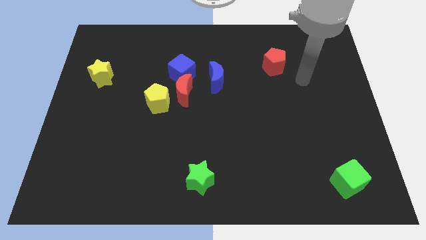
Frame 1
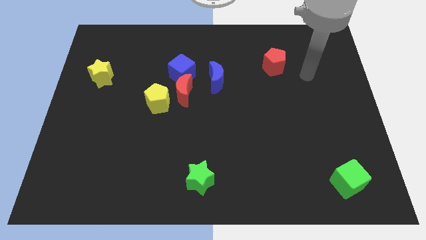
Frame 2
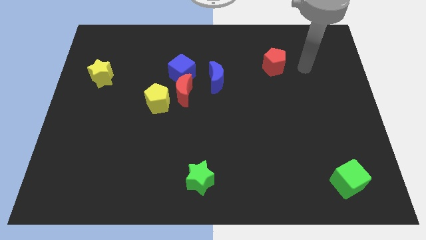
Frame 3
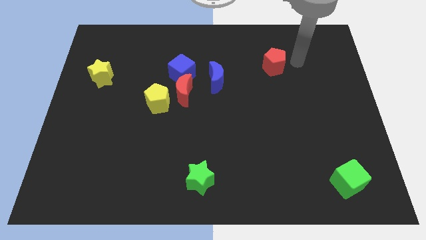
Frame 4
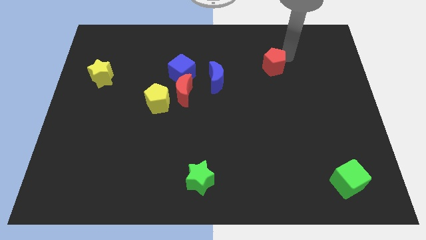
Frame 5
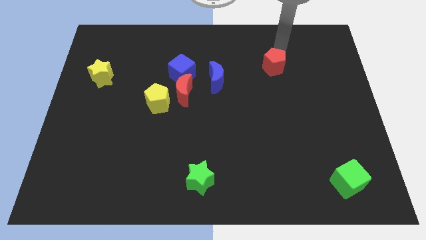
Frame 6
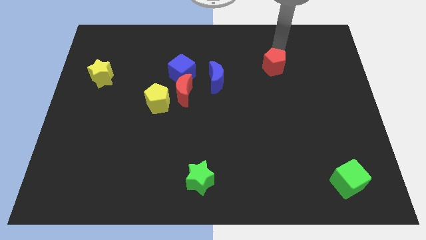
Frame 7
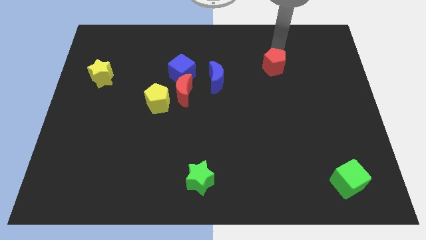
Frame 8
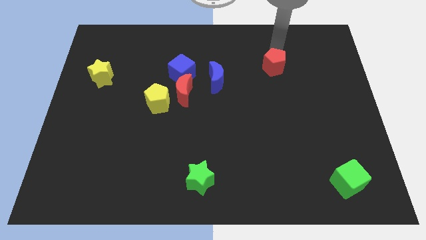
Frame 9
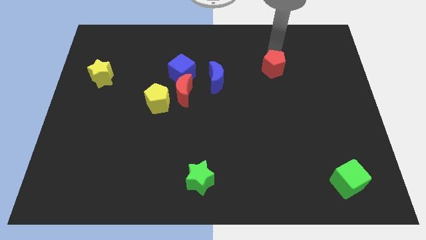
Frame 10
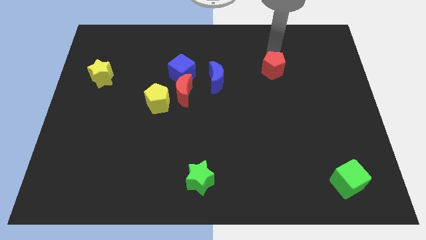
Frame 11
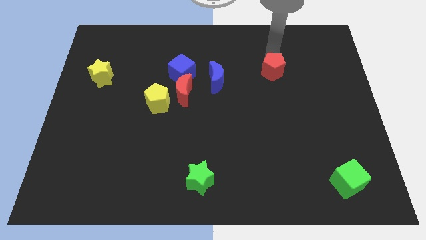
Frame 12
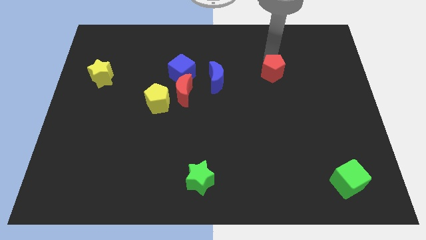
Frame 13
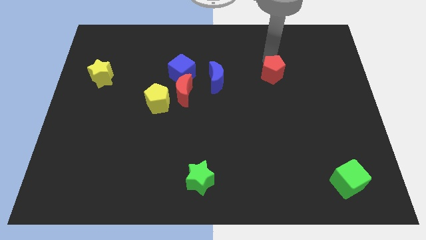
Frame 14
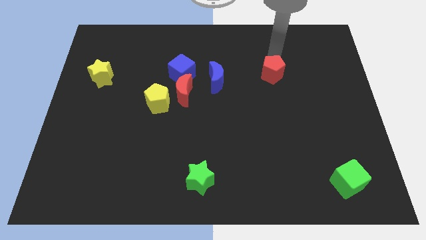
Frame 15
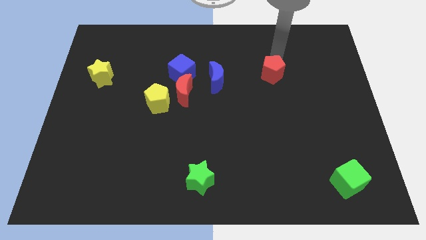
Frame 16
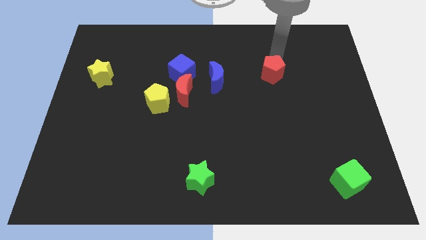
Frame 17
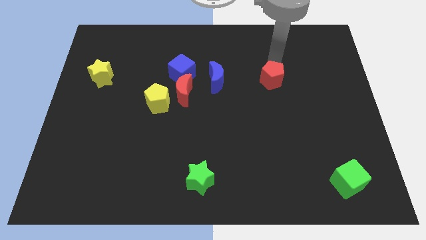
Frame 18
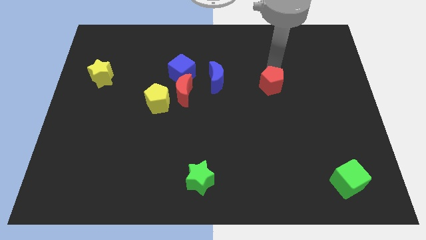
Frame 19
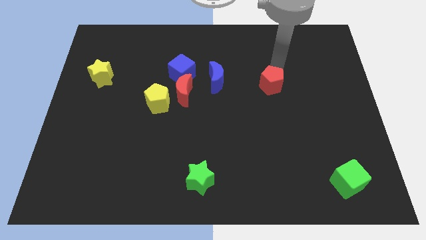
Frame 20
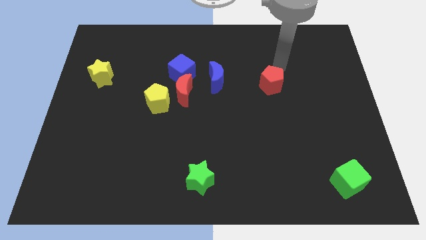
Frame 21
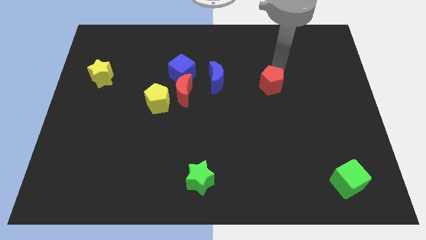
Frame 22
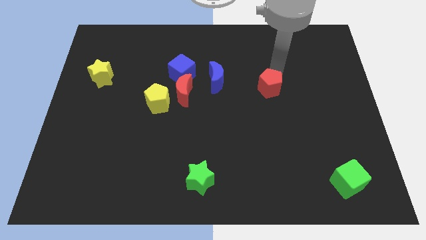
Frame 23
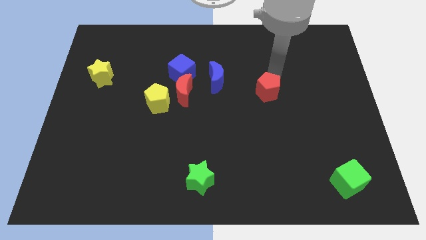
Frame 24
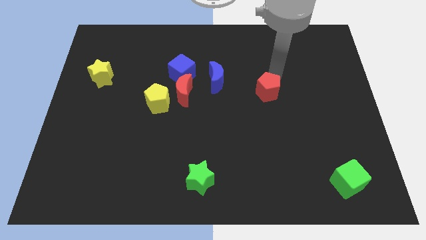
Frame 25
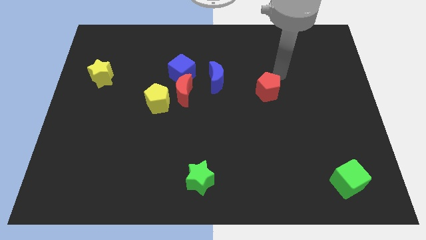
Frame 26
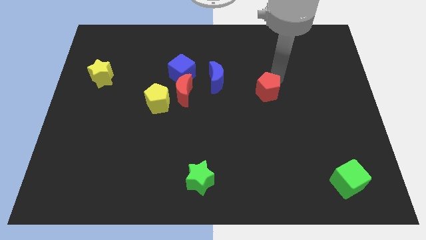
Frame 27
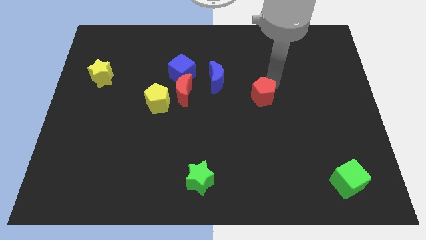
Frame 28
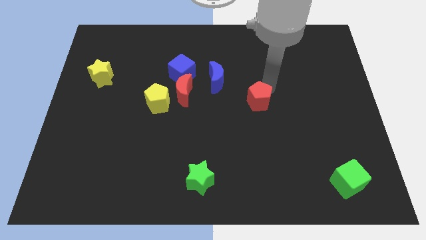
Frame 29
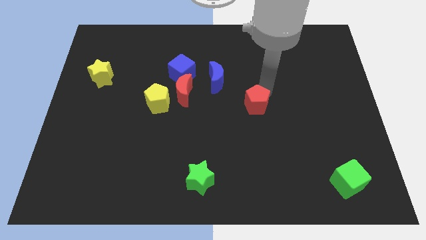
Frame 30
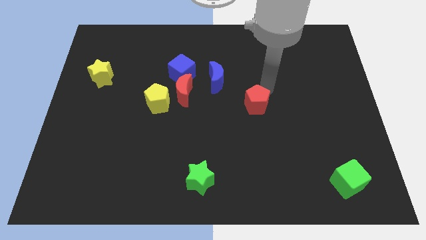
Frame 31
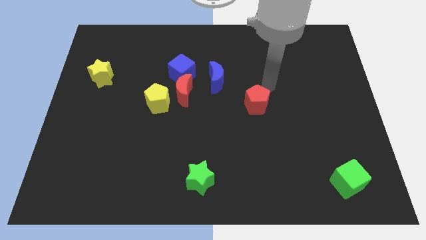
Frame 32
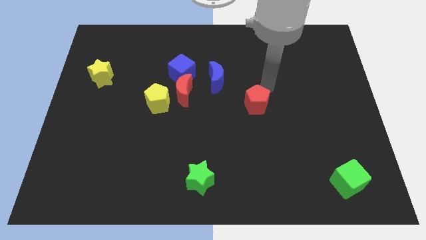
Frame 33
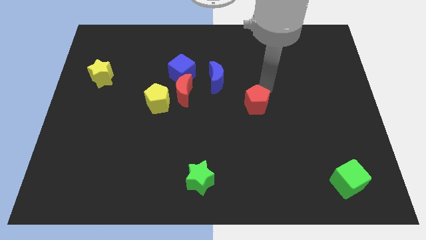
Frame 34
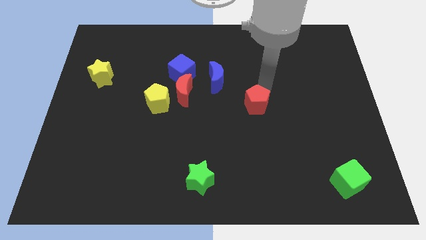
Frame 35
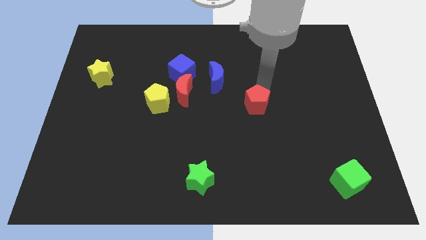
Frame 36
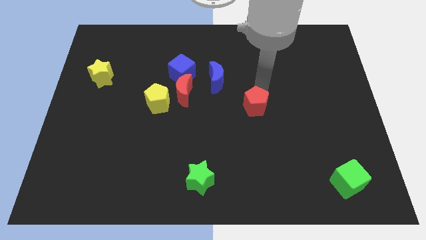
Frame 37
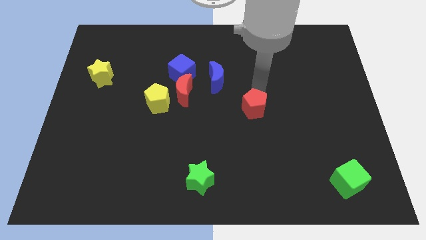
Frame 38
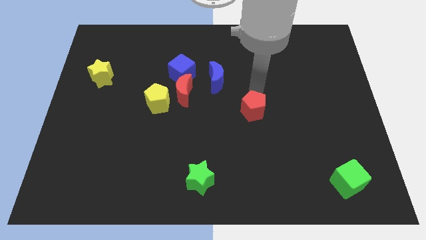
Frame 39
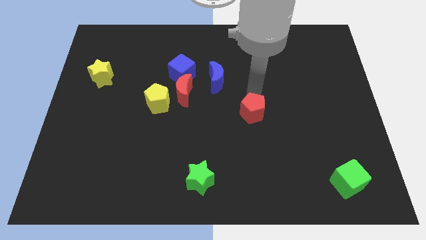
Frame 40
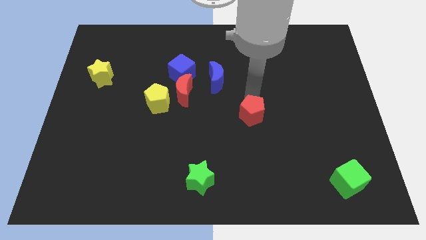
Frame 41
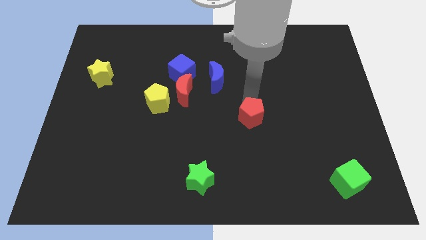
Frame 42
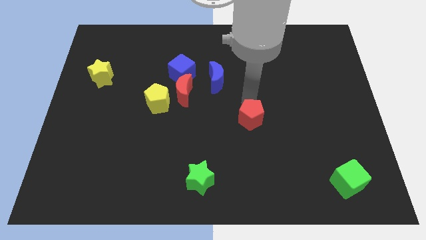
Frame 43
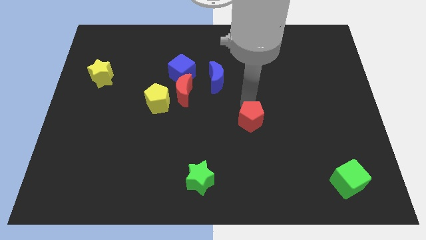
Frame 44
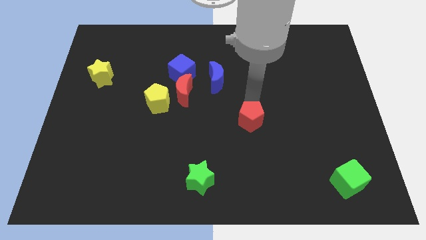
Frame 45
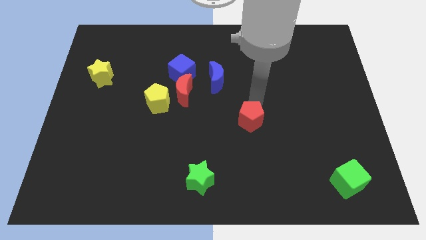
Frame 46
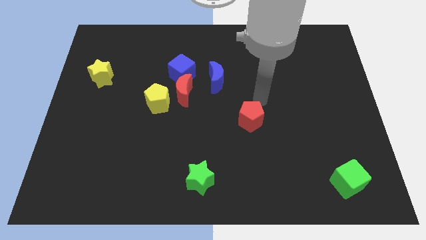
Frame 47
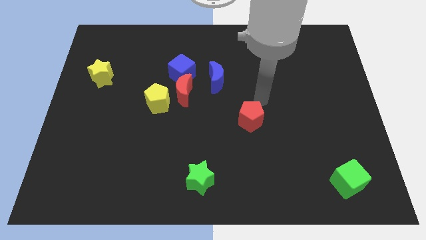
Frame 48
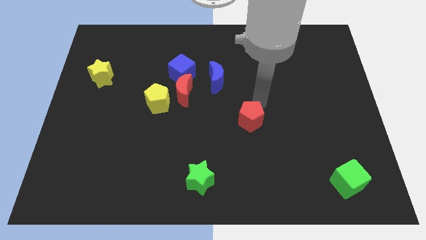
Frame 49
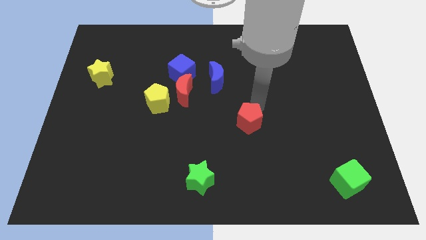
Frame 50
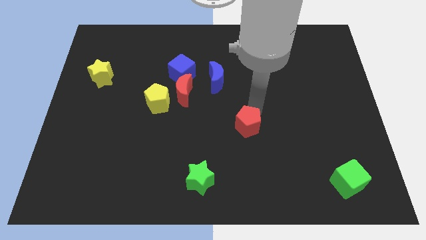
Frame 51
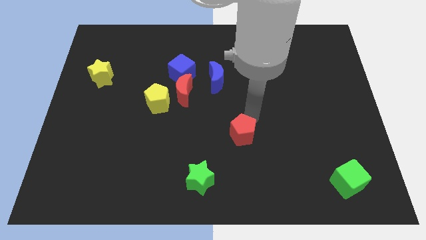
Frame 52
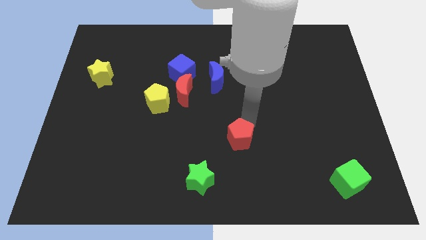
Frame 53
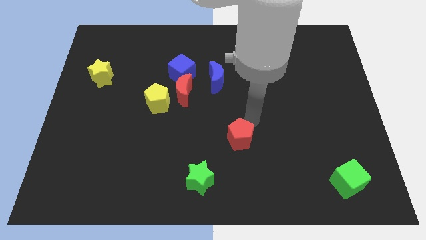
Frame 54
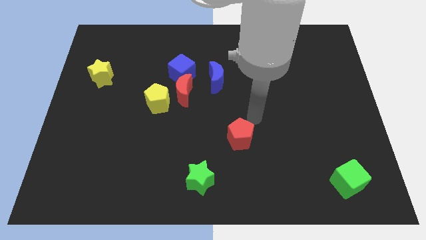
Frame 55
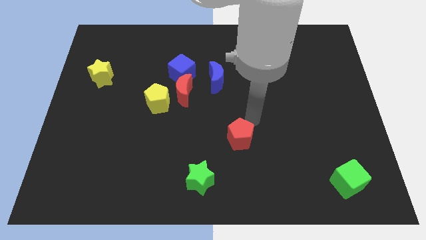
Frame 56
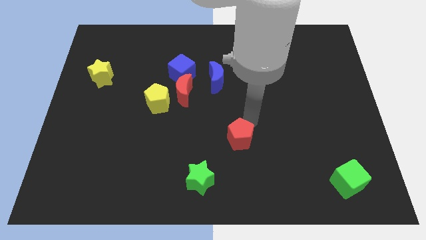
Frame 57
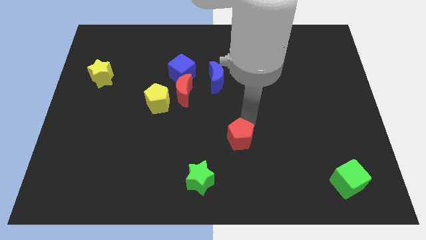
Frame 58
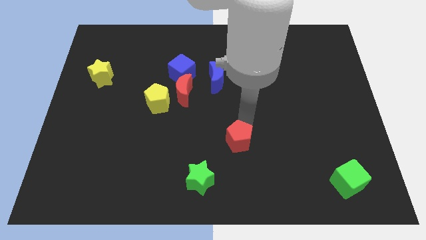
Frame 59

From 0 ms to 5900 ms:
push the red pentagon diagonally up and to the right of the green star
